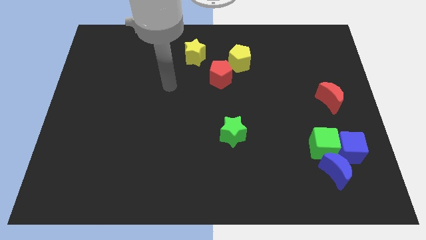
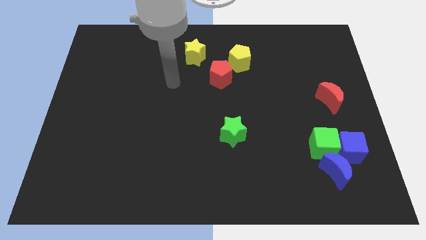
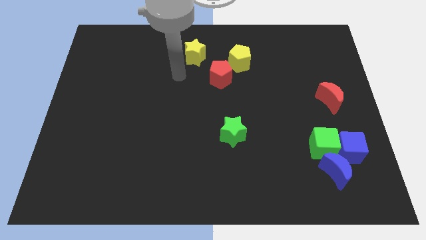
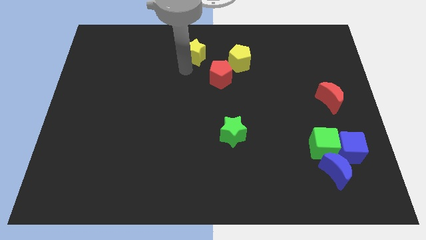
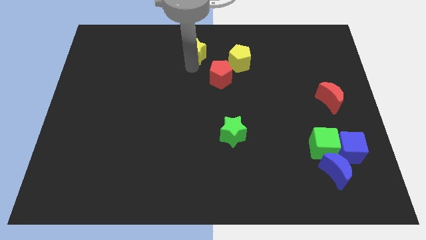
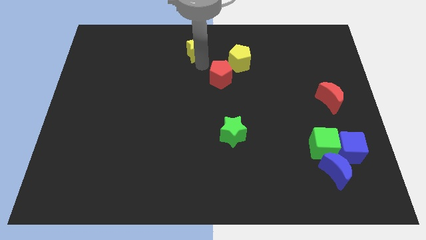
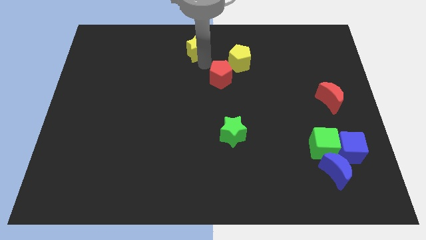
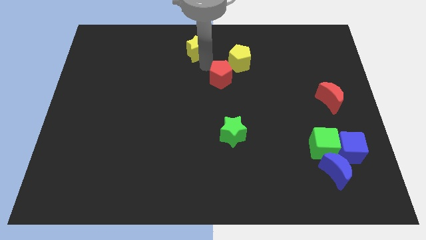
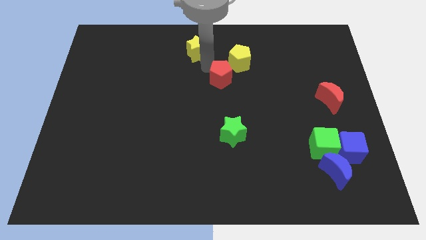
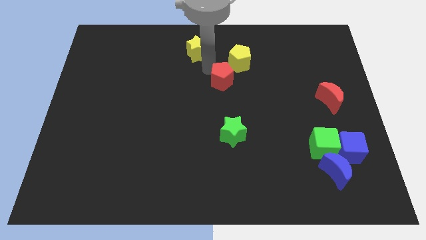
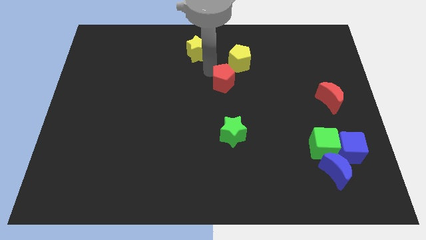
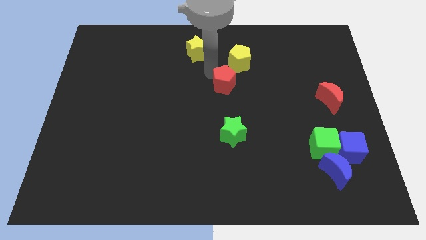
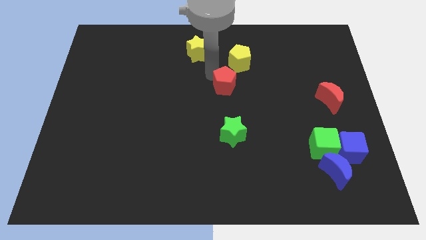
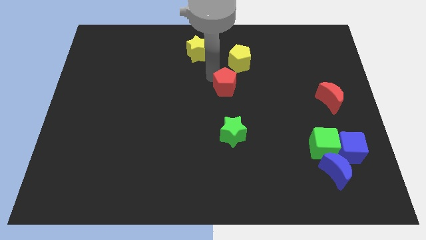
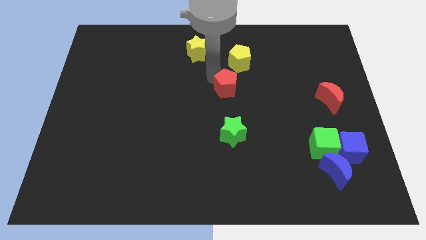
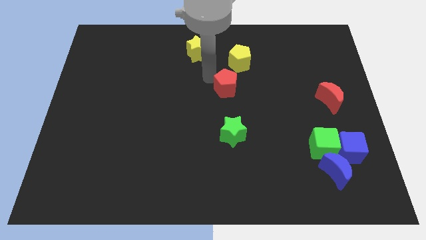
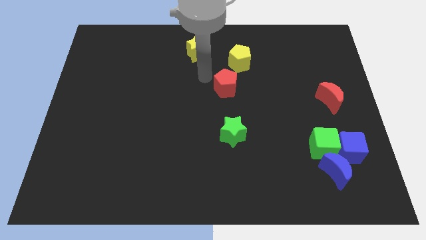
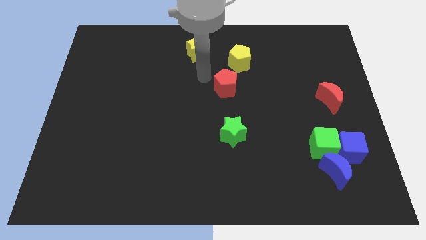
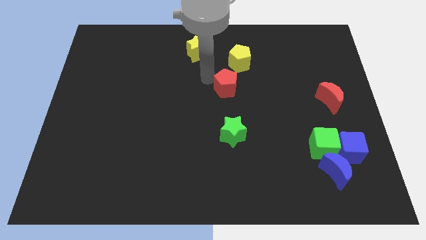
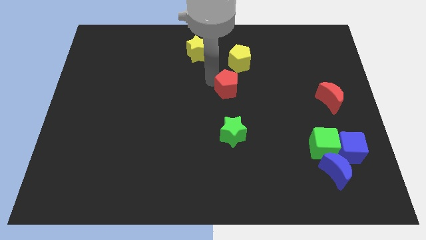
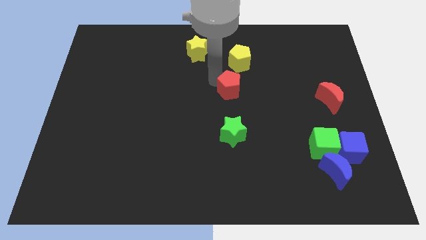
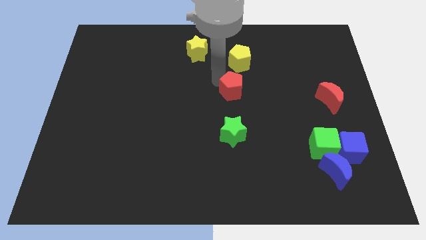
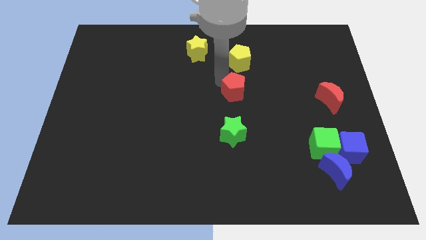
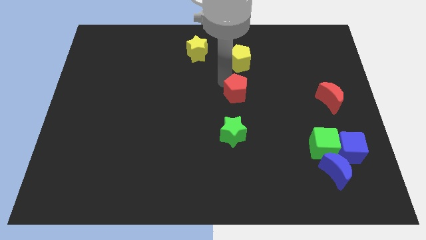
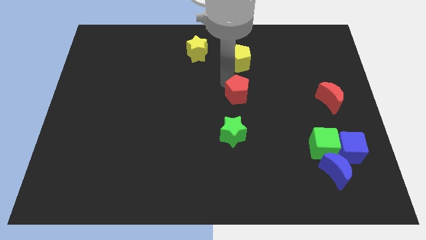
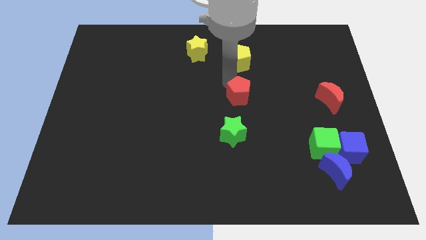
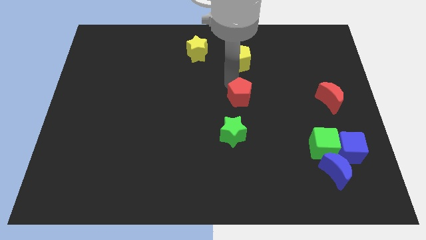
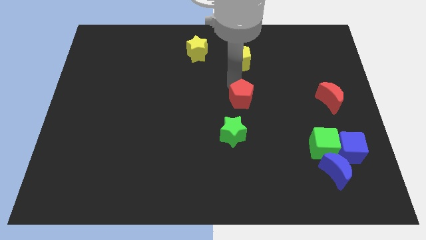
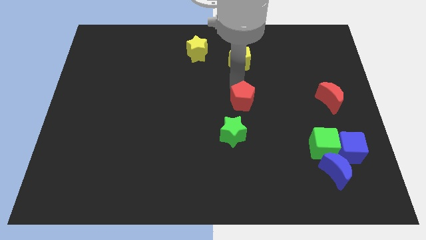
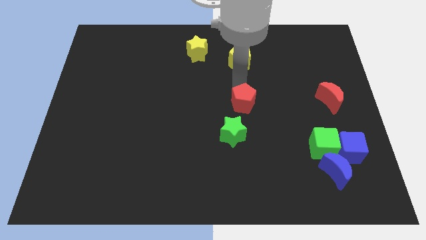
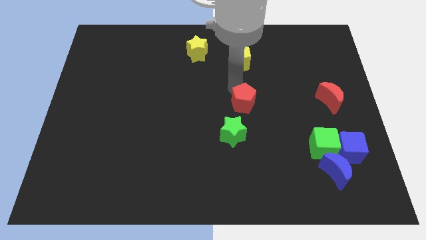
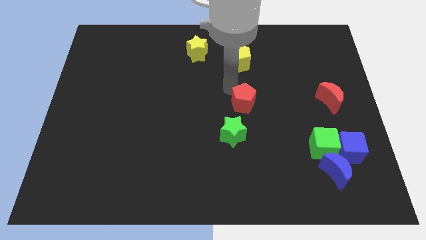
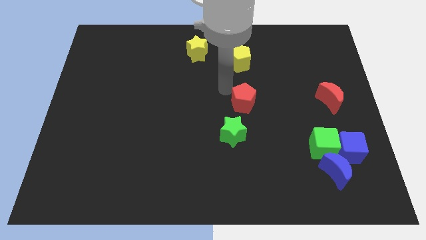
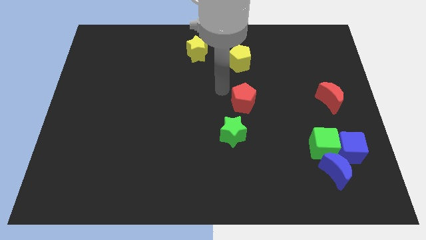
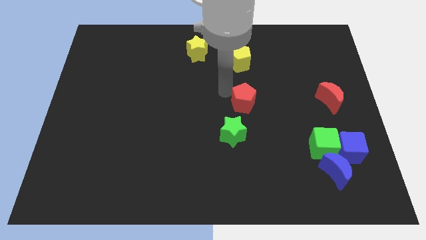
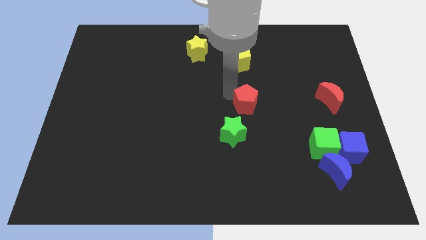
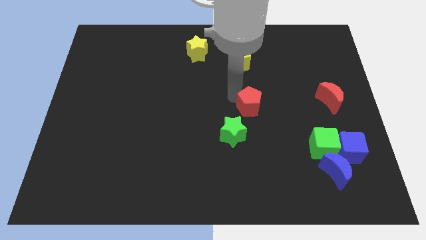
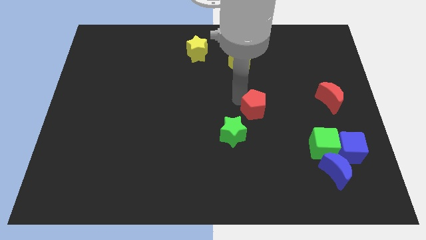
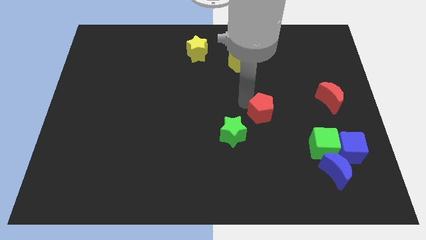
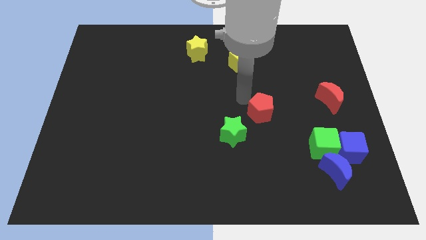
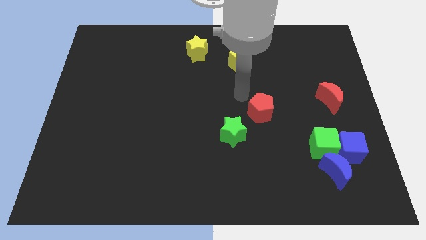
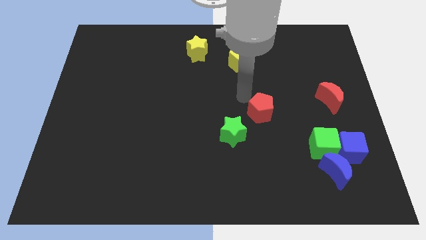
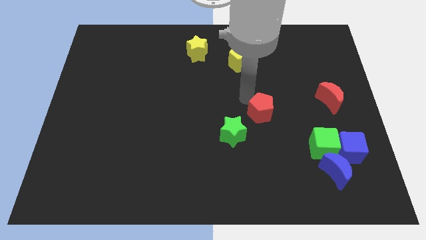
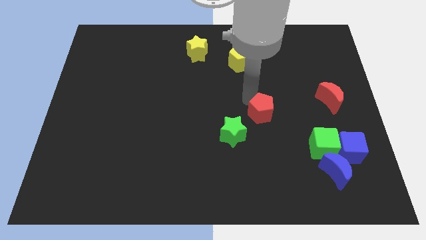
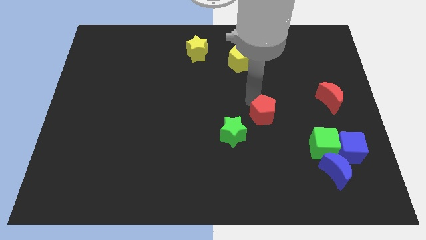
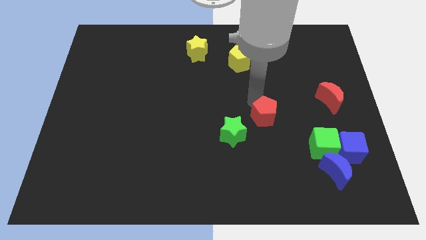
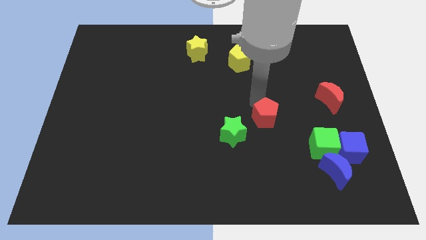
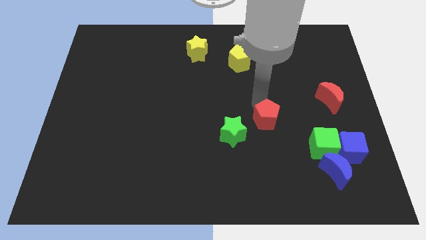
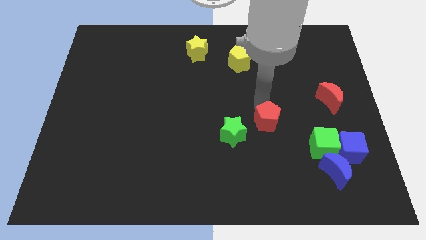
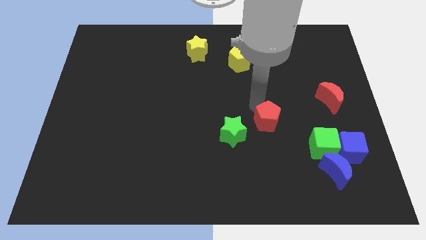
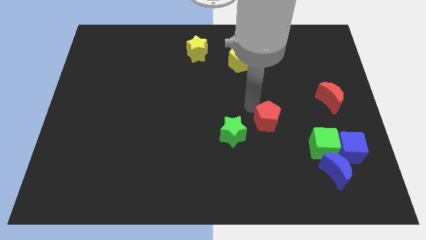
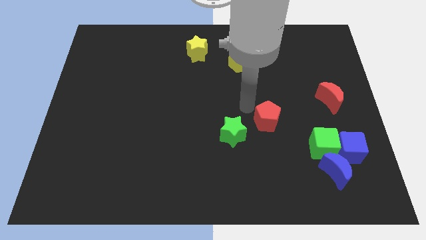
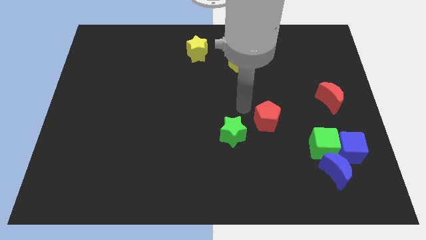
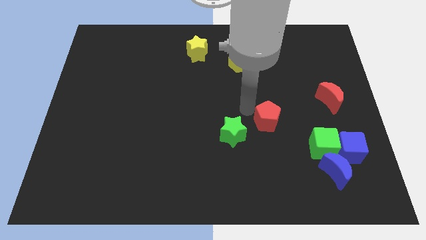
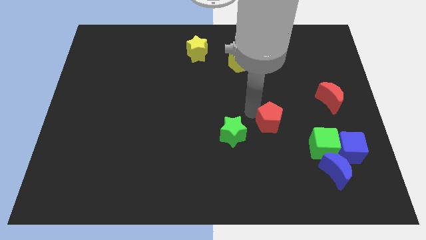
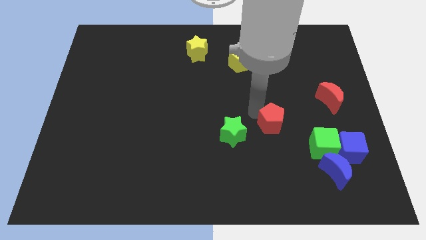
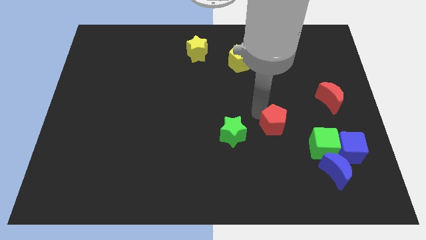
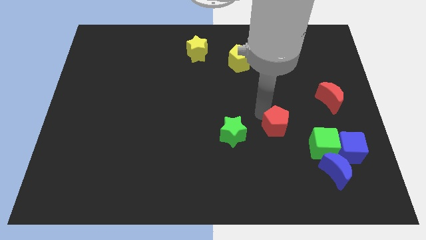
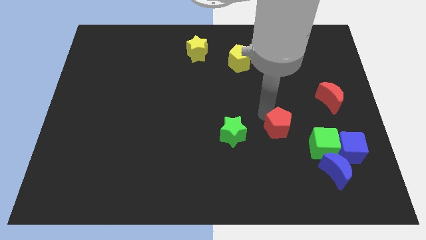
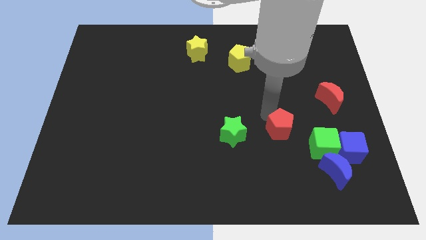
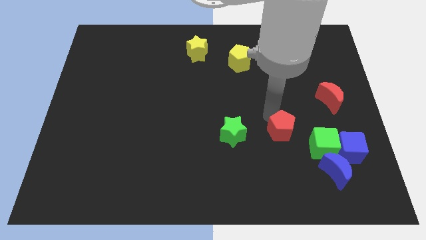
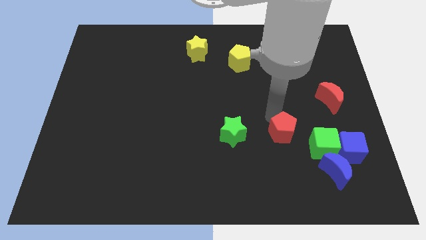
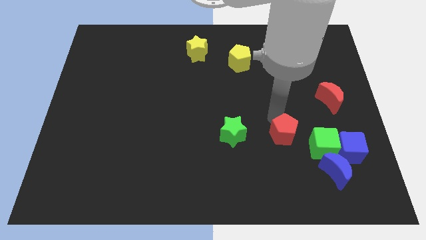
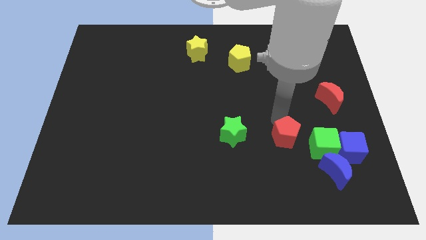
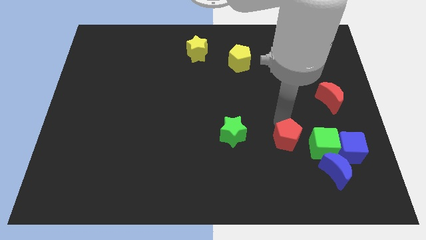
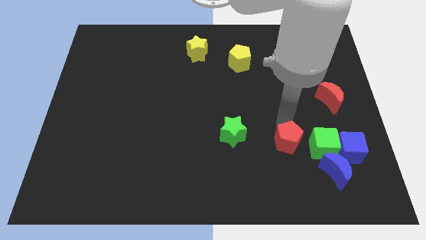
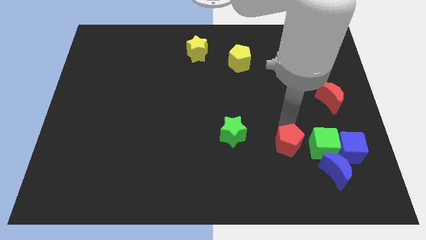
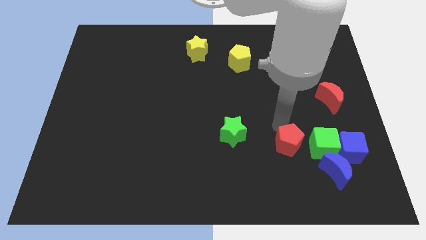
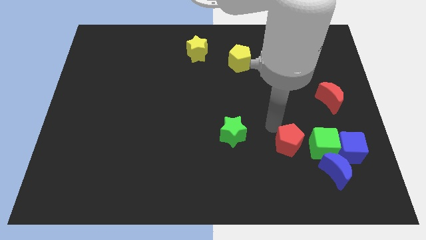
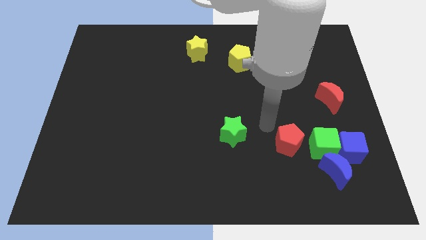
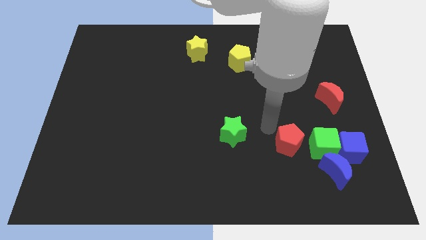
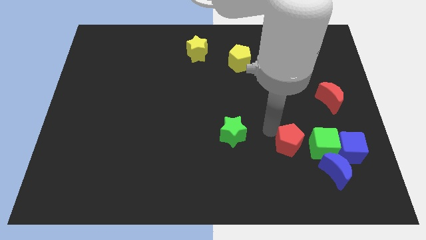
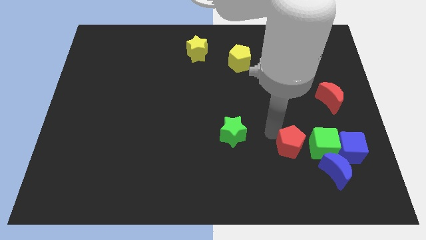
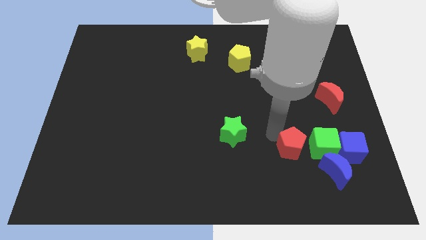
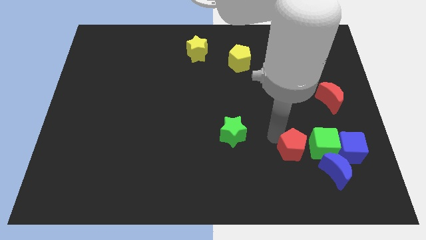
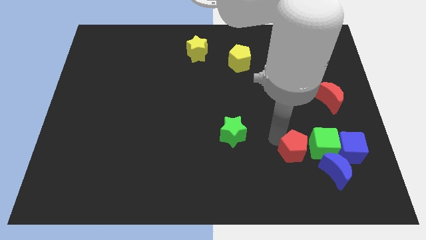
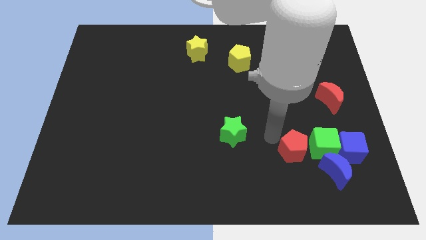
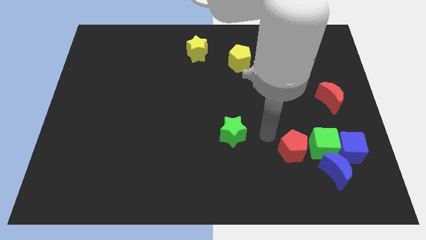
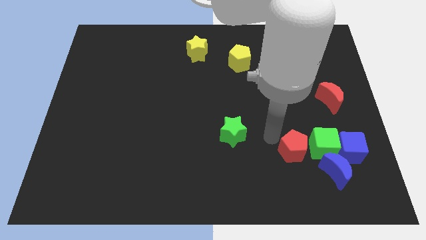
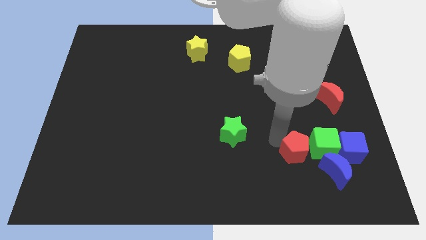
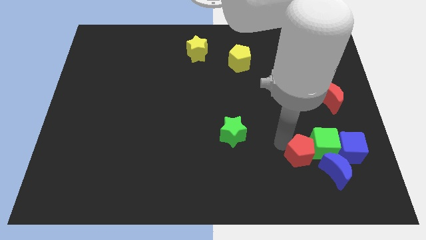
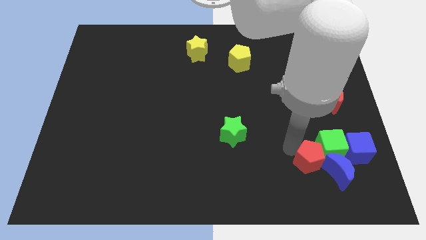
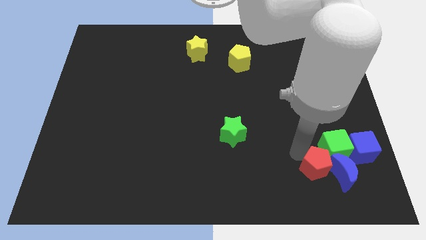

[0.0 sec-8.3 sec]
slide the red pentagon close to the blue moon

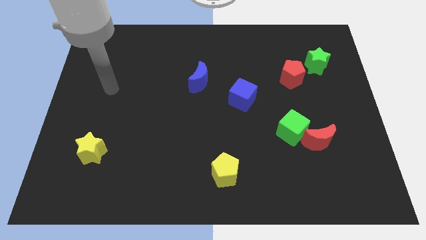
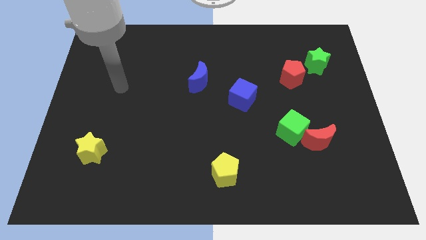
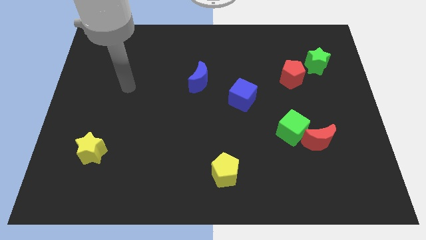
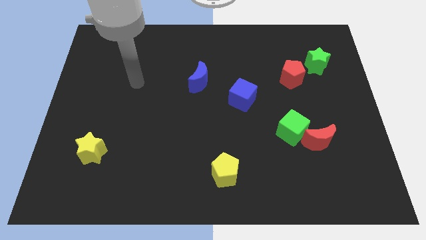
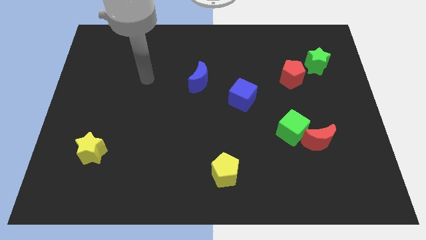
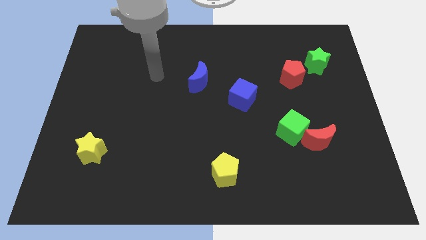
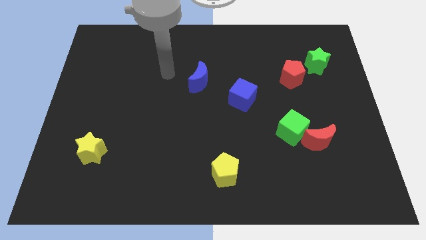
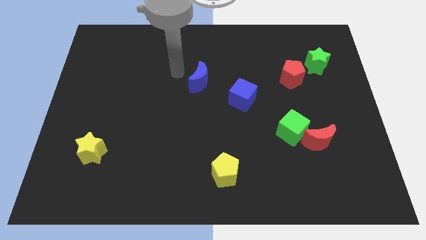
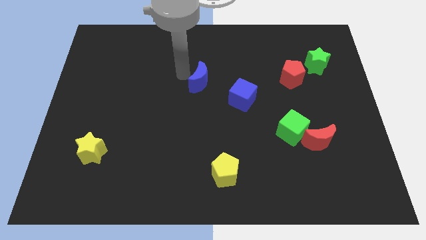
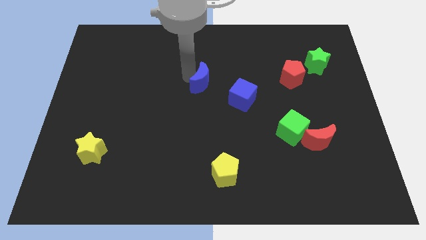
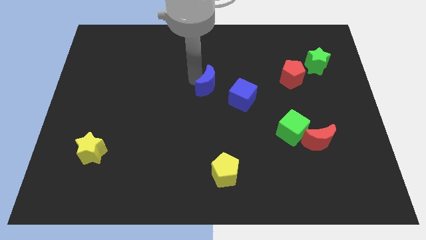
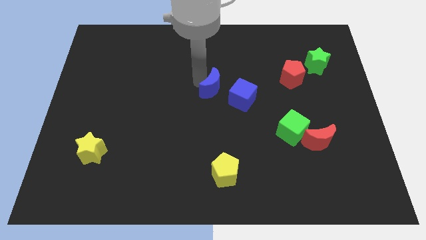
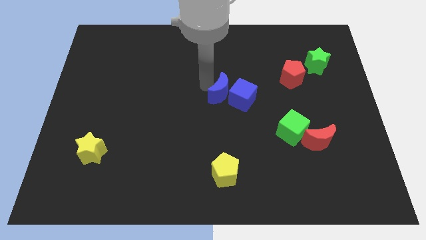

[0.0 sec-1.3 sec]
move the blue moon towards the blue cube
